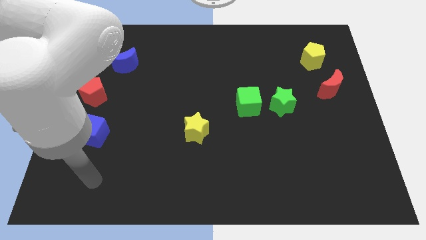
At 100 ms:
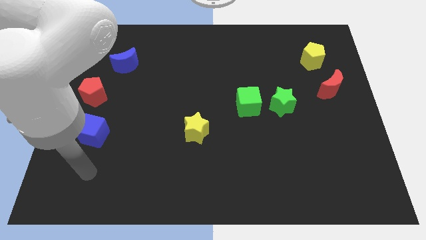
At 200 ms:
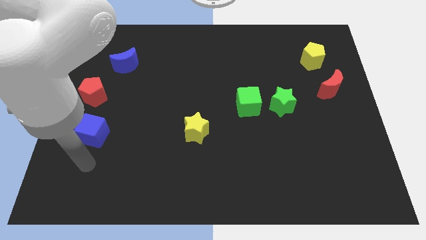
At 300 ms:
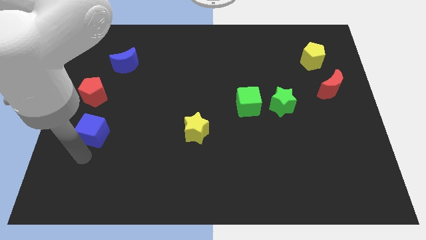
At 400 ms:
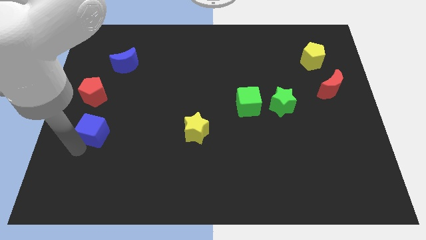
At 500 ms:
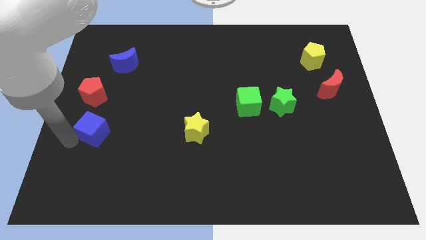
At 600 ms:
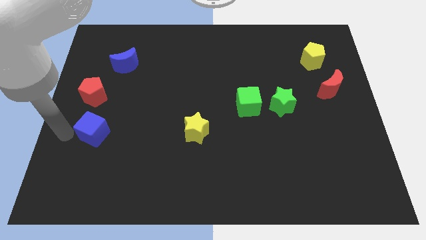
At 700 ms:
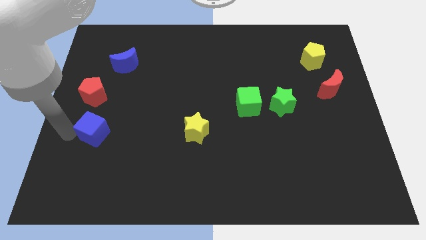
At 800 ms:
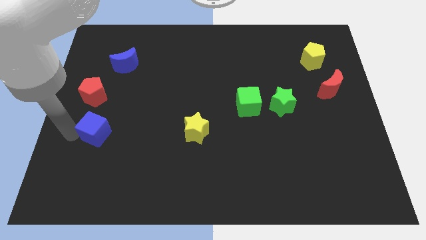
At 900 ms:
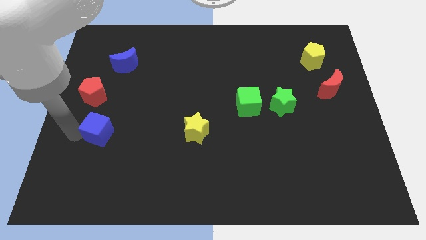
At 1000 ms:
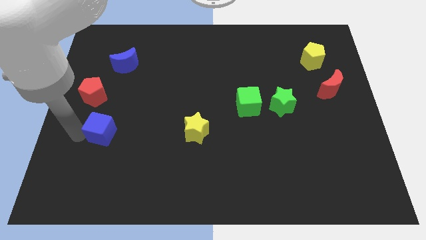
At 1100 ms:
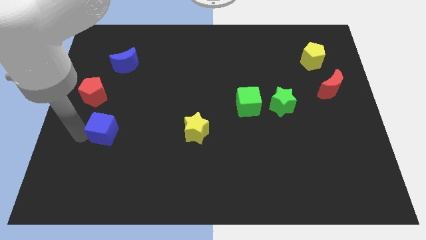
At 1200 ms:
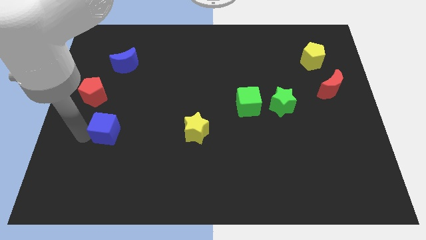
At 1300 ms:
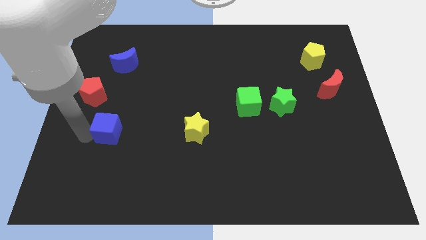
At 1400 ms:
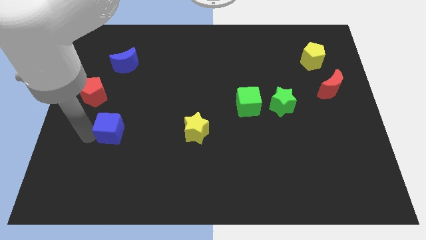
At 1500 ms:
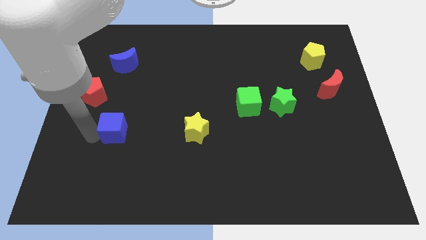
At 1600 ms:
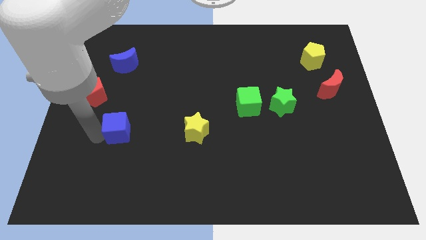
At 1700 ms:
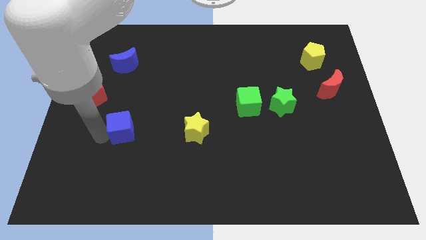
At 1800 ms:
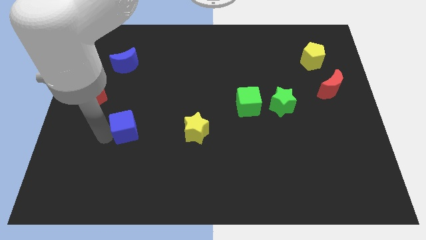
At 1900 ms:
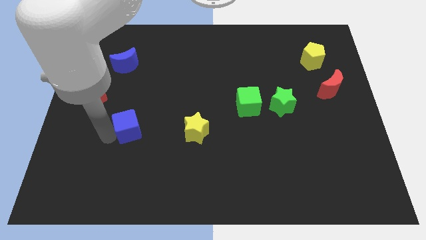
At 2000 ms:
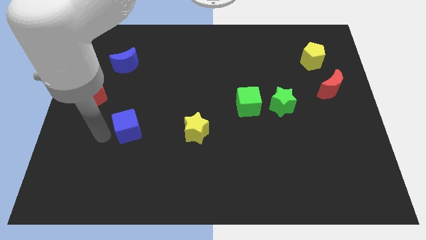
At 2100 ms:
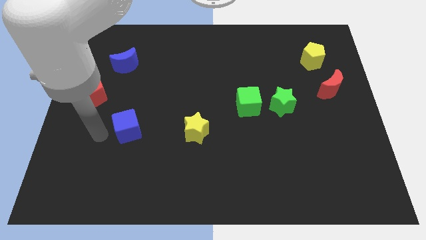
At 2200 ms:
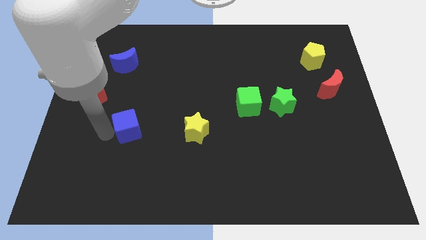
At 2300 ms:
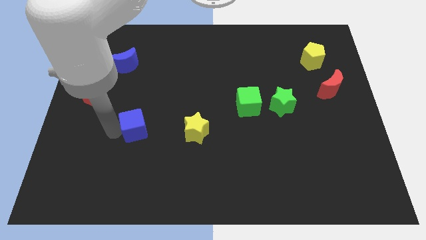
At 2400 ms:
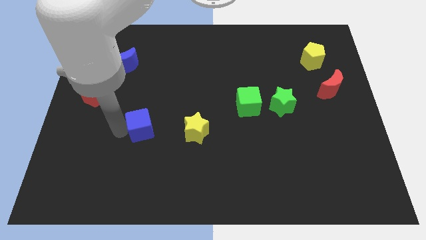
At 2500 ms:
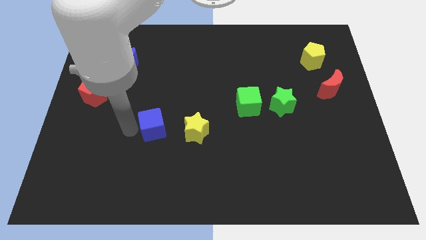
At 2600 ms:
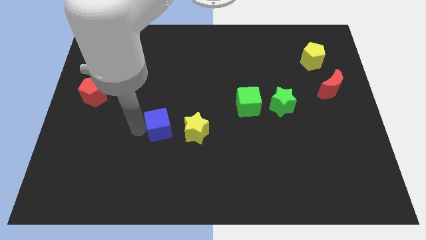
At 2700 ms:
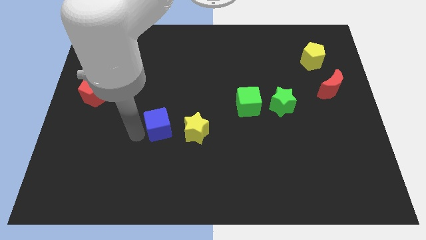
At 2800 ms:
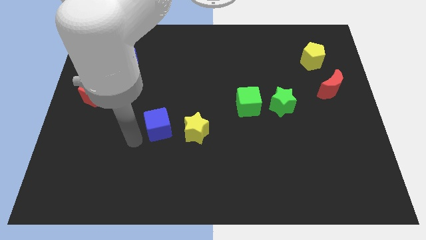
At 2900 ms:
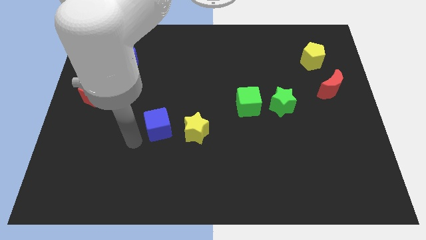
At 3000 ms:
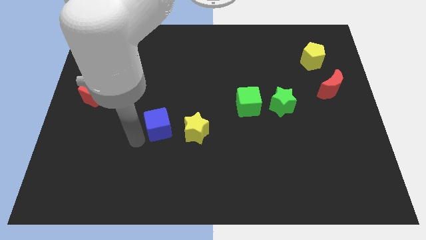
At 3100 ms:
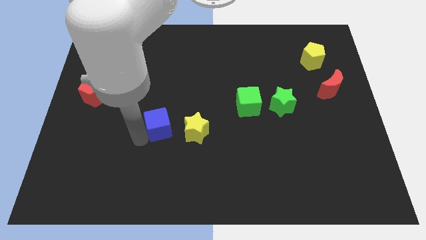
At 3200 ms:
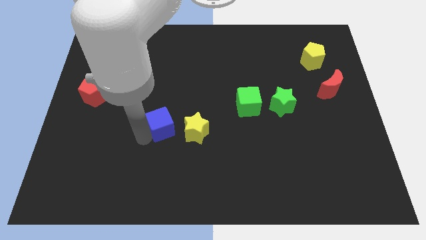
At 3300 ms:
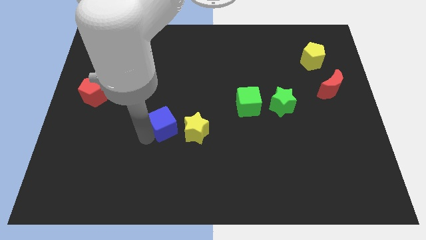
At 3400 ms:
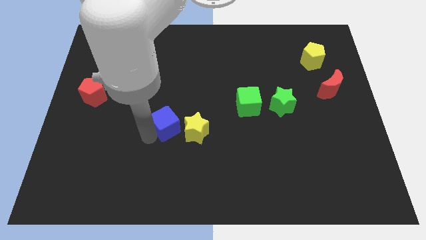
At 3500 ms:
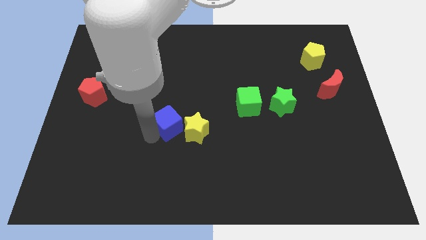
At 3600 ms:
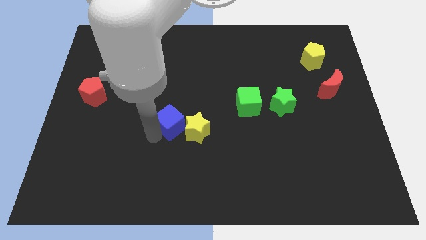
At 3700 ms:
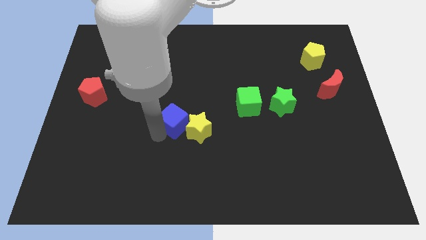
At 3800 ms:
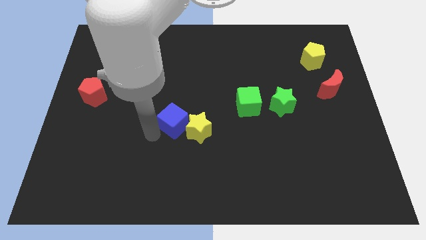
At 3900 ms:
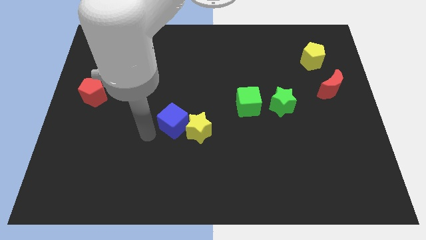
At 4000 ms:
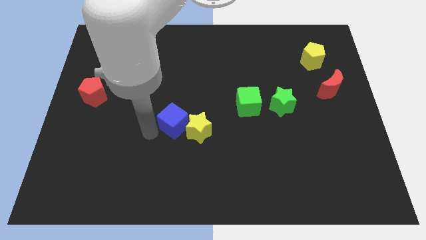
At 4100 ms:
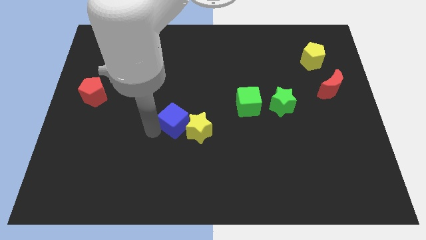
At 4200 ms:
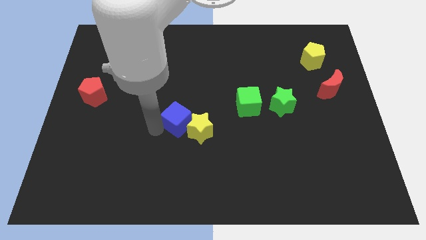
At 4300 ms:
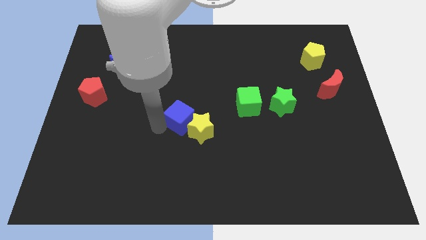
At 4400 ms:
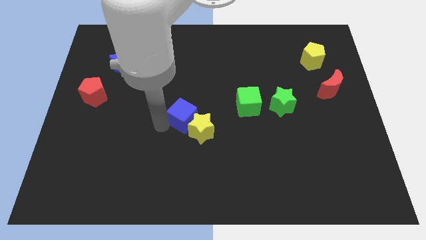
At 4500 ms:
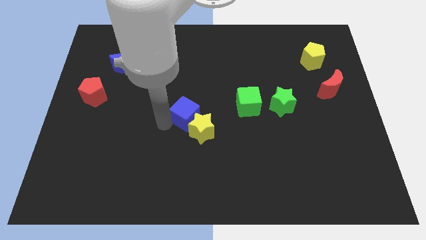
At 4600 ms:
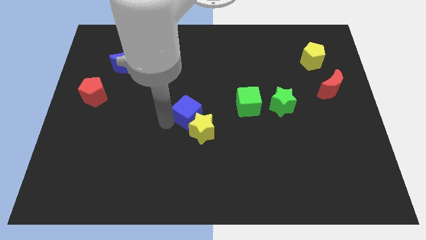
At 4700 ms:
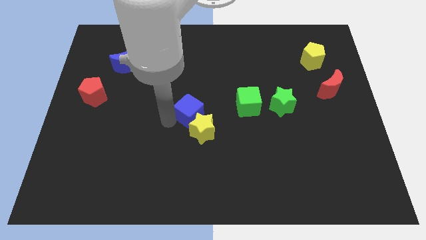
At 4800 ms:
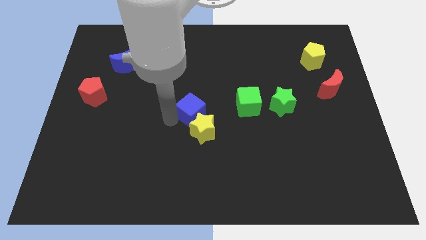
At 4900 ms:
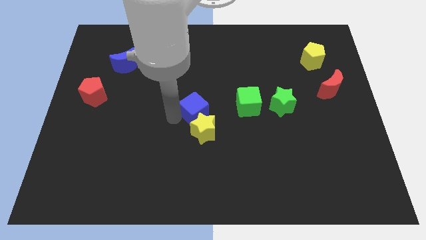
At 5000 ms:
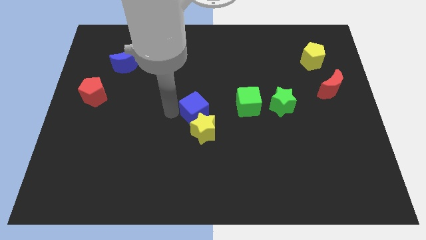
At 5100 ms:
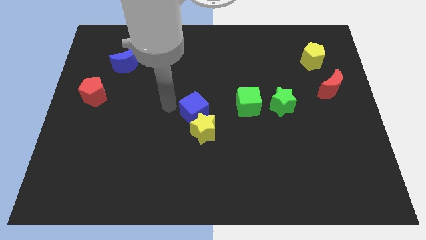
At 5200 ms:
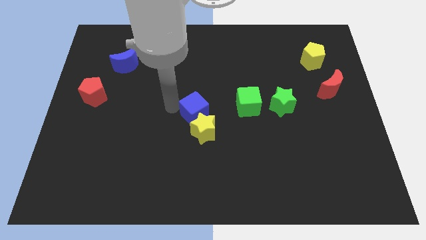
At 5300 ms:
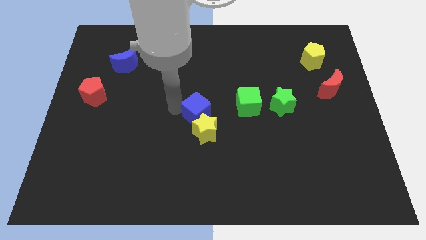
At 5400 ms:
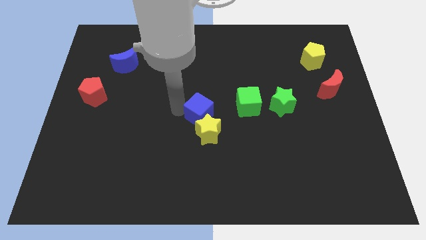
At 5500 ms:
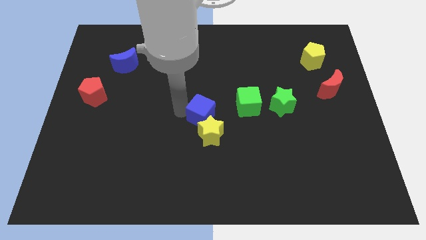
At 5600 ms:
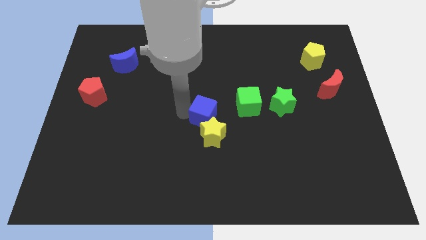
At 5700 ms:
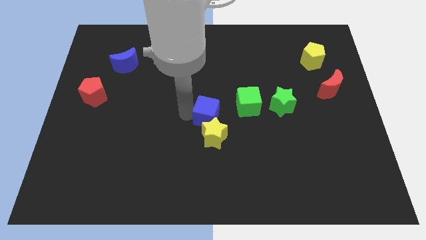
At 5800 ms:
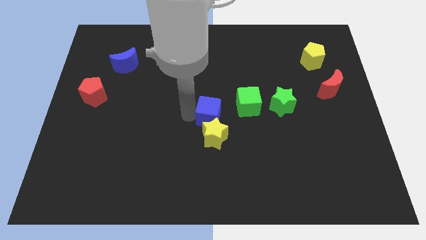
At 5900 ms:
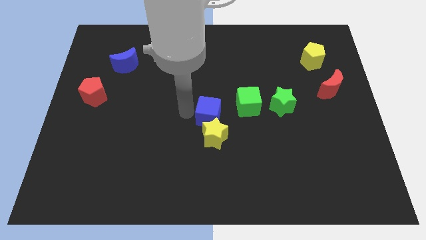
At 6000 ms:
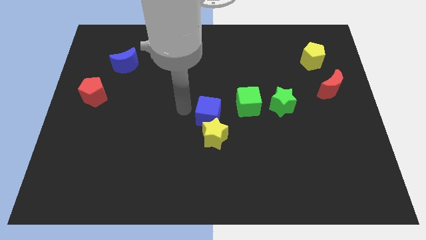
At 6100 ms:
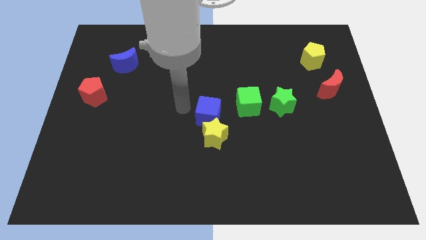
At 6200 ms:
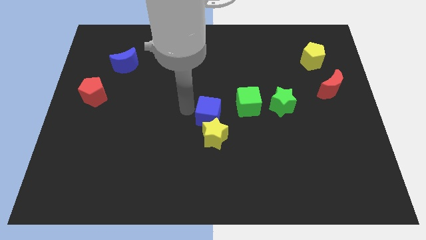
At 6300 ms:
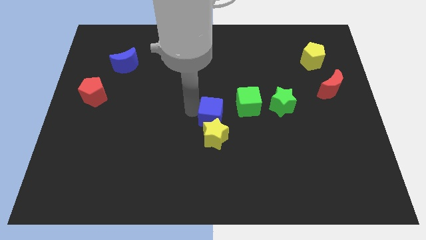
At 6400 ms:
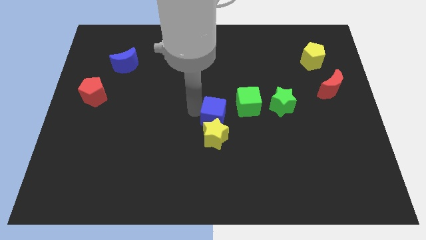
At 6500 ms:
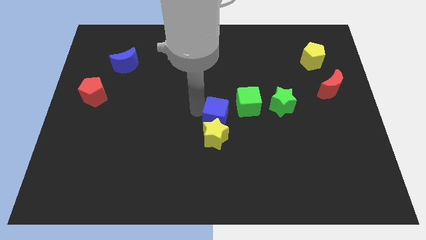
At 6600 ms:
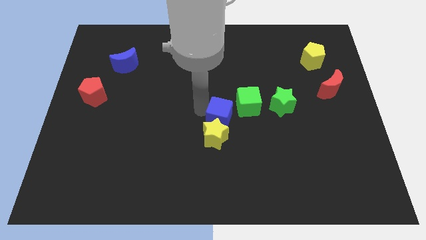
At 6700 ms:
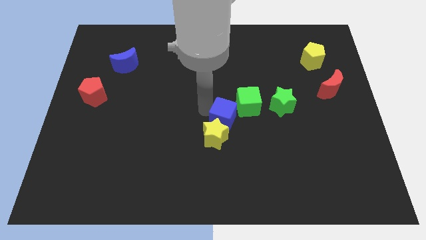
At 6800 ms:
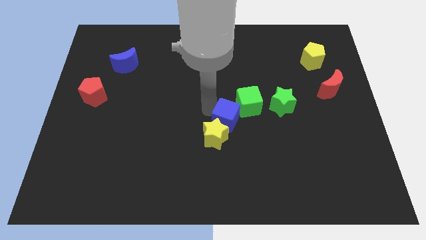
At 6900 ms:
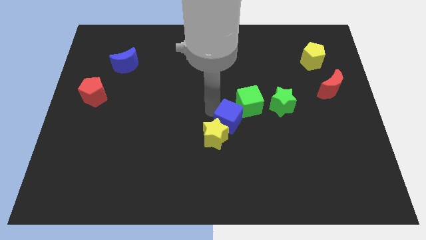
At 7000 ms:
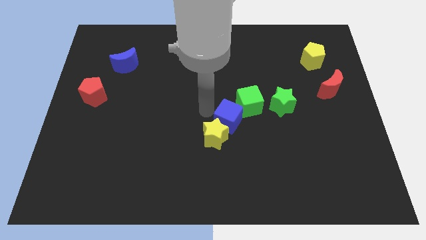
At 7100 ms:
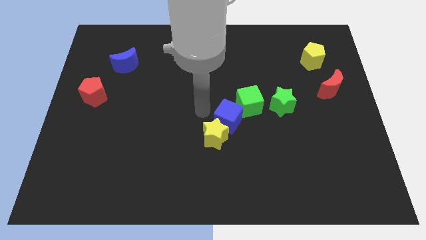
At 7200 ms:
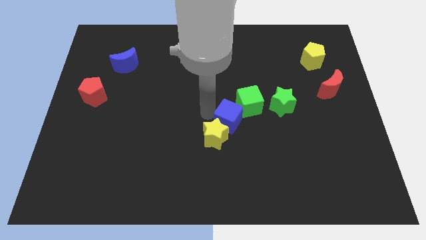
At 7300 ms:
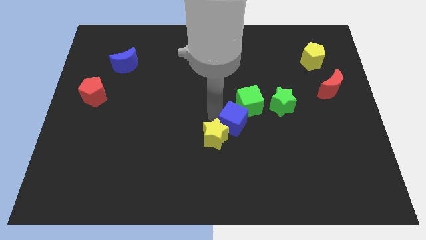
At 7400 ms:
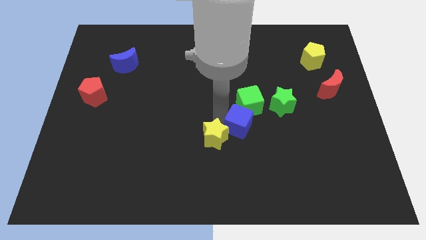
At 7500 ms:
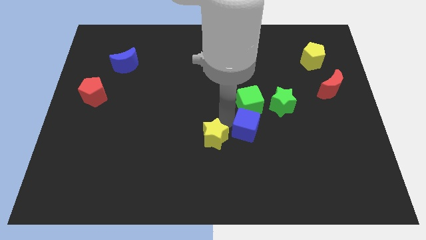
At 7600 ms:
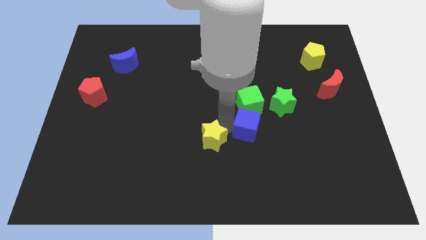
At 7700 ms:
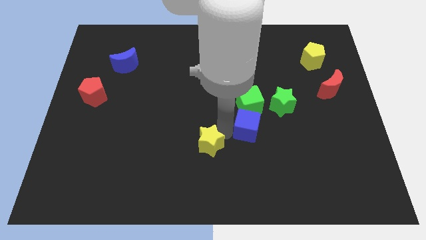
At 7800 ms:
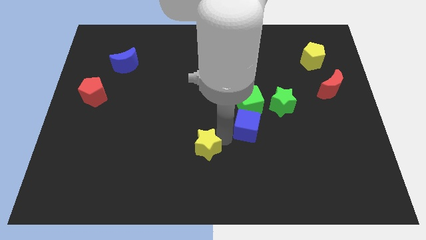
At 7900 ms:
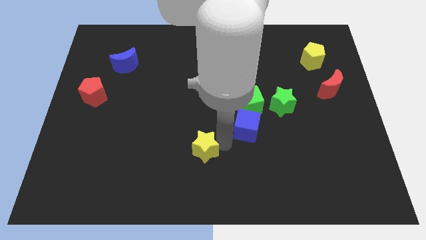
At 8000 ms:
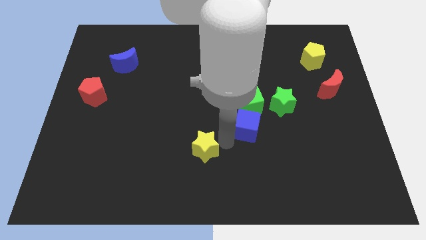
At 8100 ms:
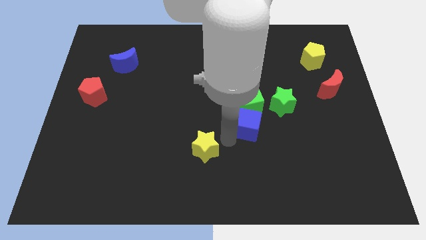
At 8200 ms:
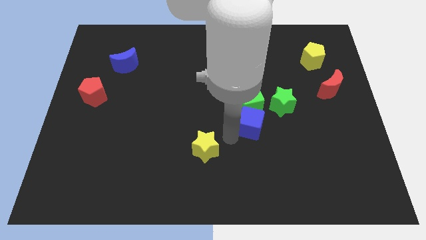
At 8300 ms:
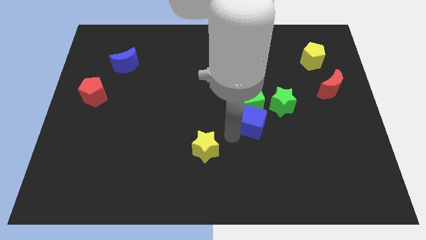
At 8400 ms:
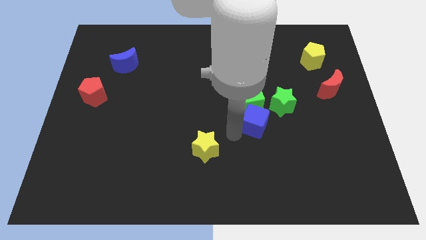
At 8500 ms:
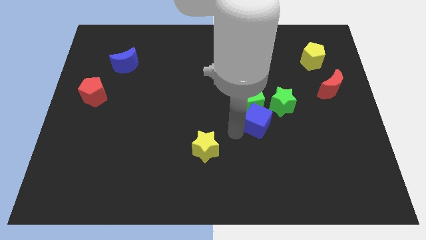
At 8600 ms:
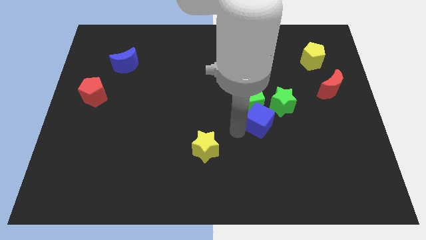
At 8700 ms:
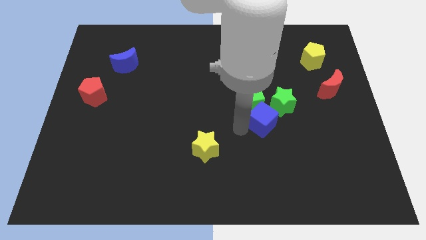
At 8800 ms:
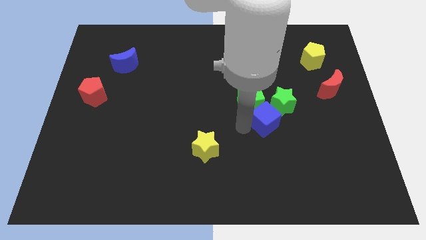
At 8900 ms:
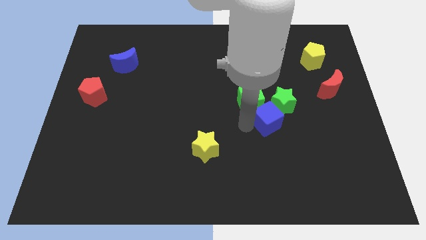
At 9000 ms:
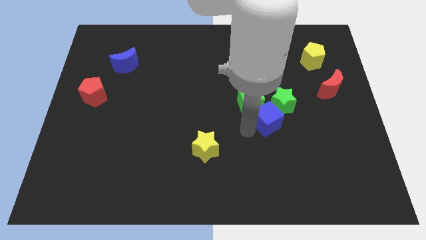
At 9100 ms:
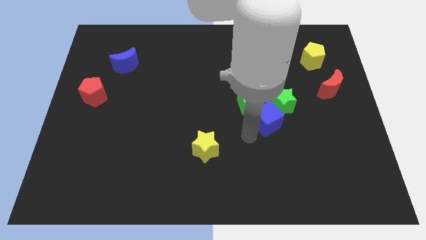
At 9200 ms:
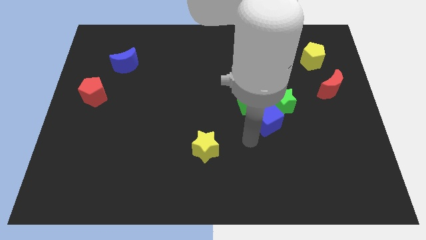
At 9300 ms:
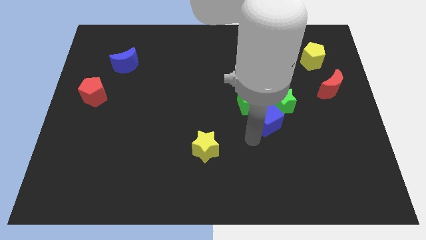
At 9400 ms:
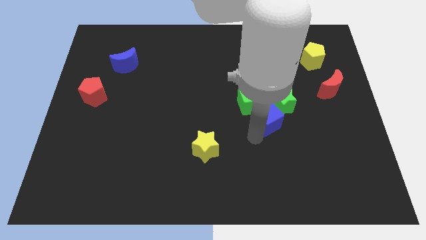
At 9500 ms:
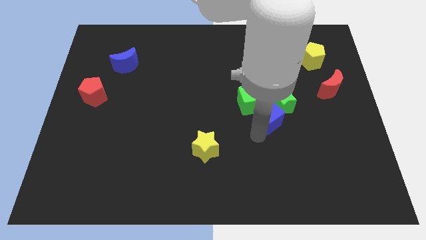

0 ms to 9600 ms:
slide the blue cube close to the green star
